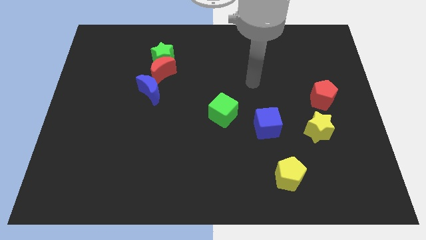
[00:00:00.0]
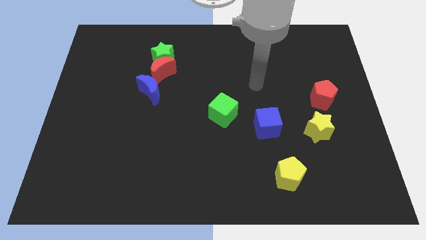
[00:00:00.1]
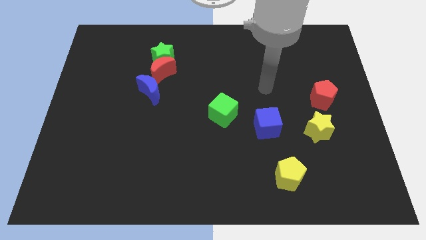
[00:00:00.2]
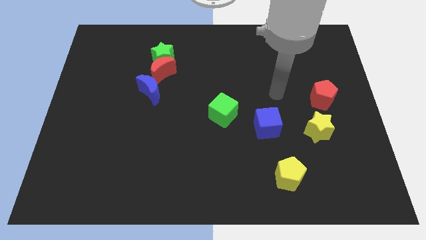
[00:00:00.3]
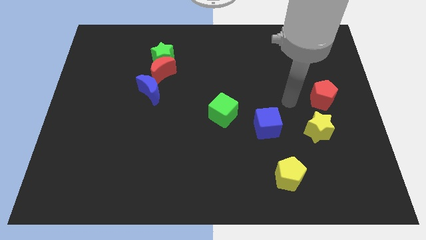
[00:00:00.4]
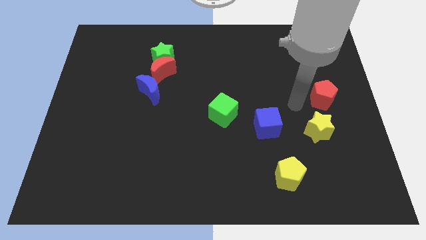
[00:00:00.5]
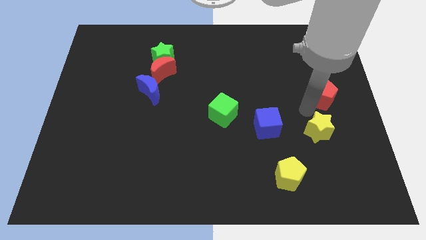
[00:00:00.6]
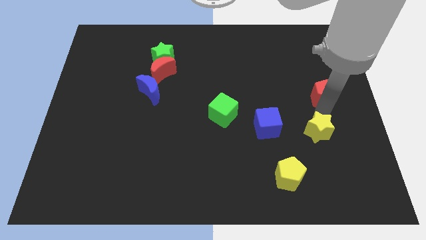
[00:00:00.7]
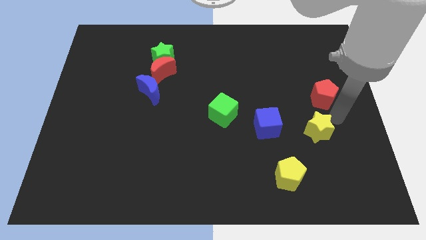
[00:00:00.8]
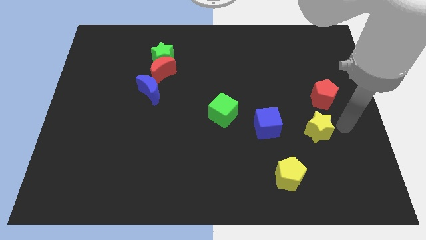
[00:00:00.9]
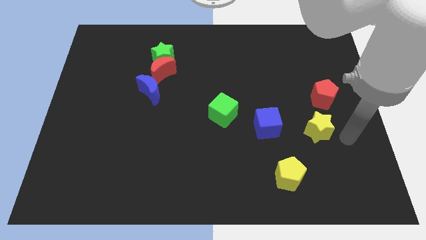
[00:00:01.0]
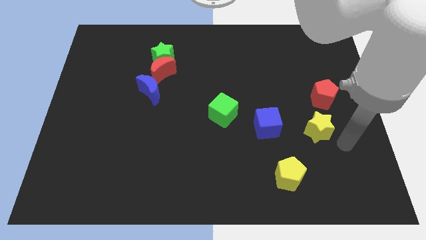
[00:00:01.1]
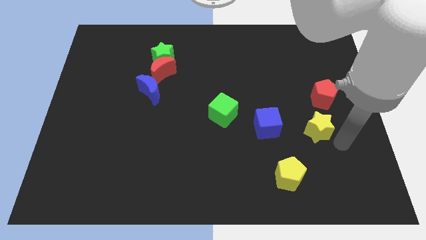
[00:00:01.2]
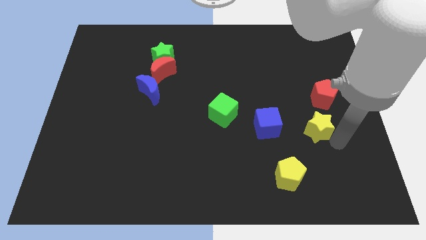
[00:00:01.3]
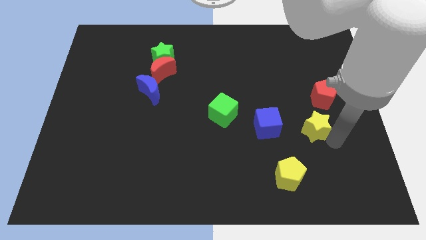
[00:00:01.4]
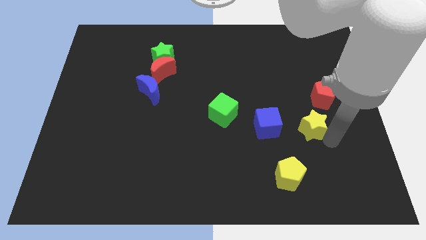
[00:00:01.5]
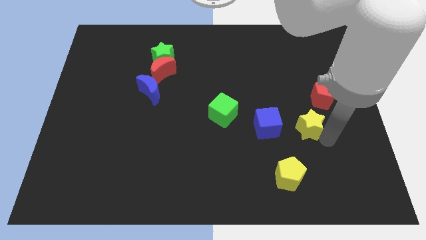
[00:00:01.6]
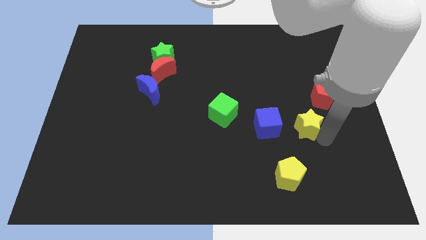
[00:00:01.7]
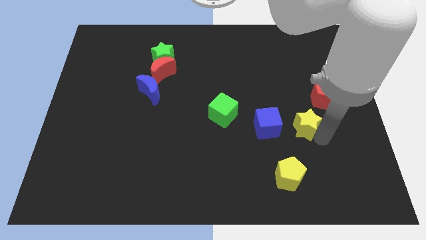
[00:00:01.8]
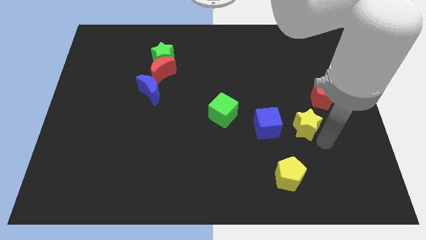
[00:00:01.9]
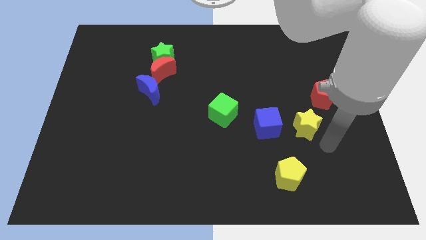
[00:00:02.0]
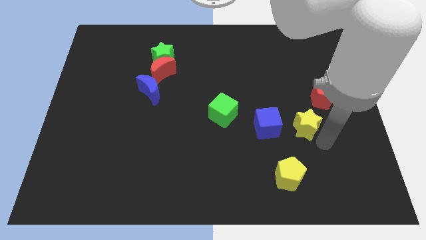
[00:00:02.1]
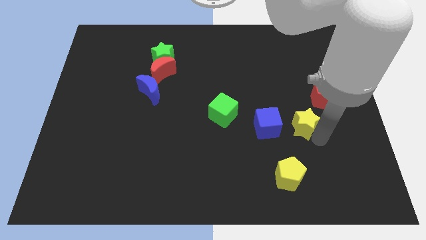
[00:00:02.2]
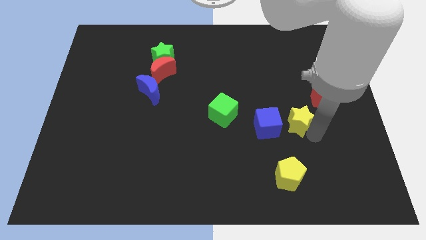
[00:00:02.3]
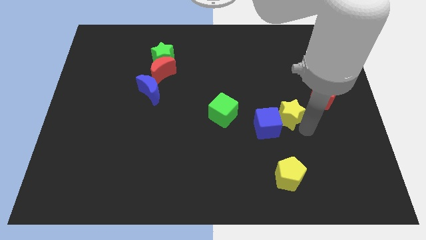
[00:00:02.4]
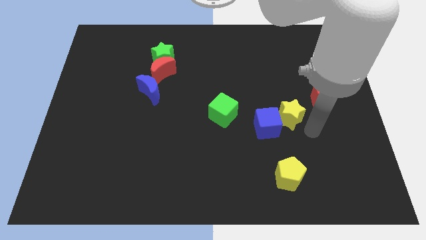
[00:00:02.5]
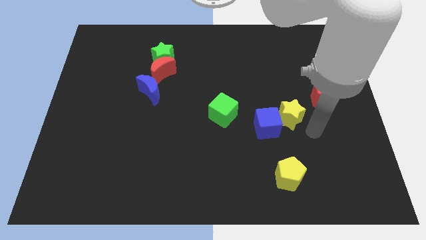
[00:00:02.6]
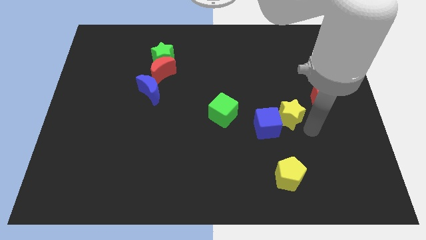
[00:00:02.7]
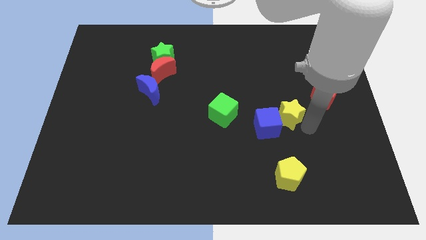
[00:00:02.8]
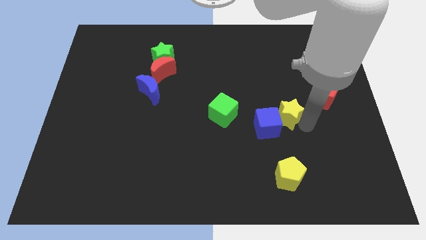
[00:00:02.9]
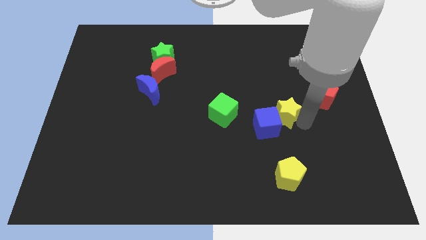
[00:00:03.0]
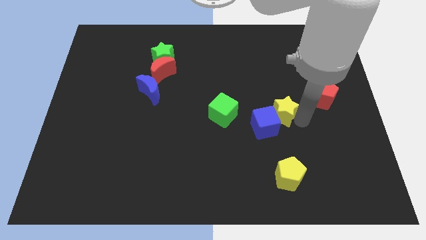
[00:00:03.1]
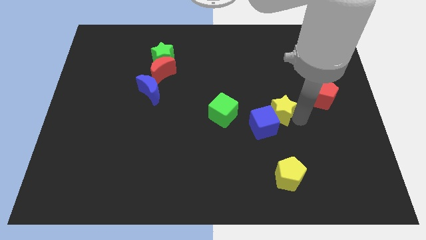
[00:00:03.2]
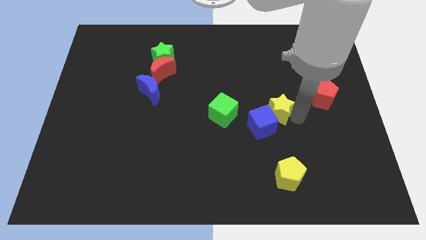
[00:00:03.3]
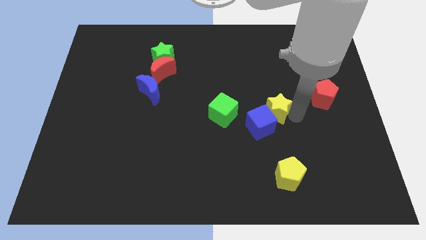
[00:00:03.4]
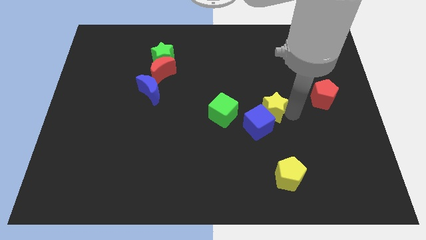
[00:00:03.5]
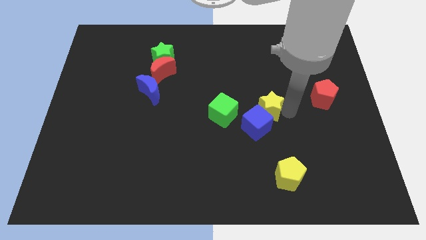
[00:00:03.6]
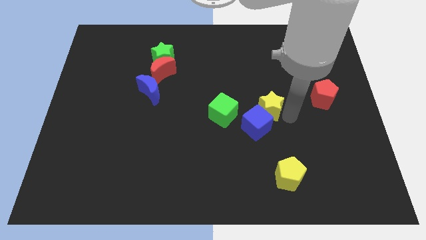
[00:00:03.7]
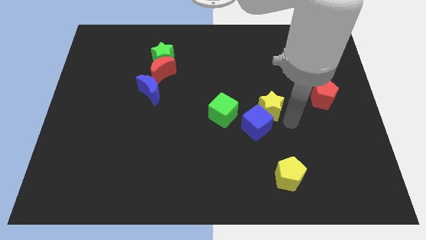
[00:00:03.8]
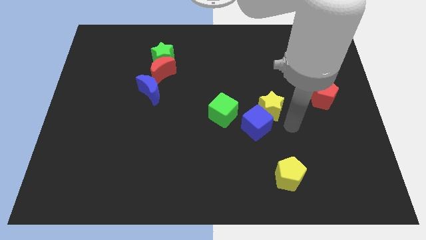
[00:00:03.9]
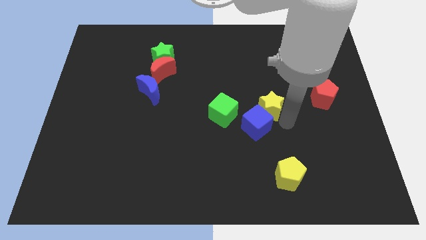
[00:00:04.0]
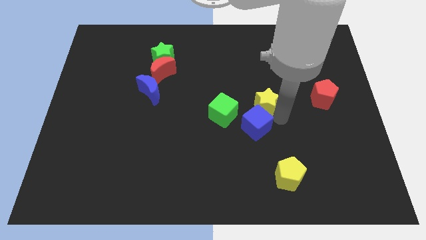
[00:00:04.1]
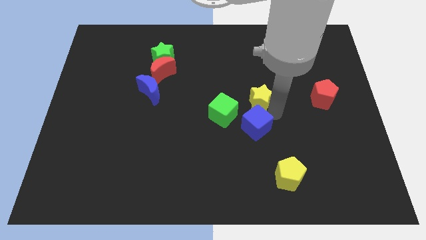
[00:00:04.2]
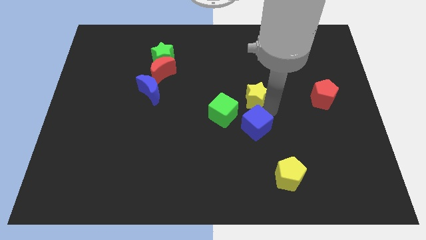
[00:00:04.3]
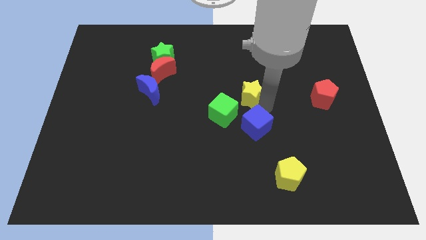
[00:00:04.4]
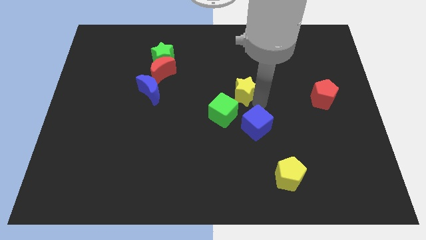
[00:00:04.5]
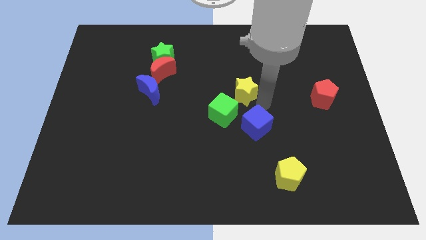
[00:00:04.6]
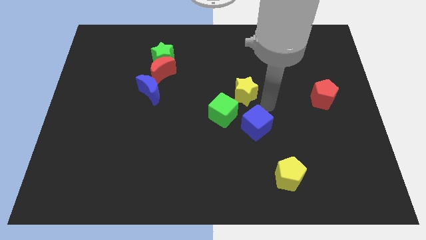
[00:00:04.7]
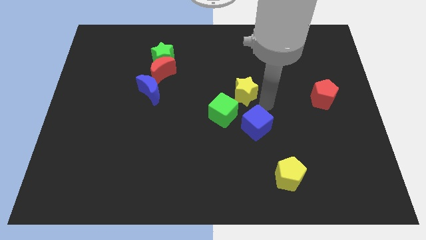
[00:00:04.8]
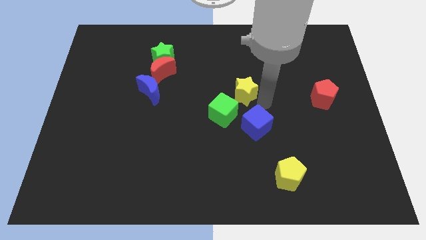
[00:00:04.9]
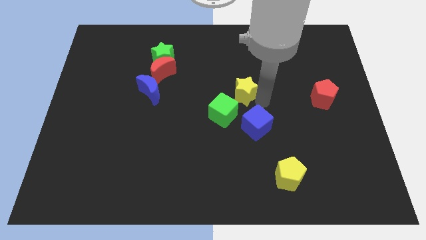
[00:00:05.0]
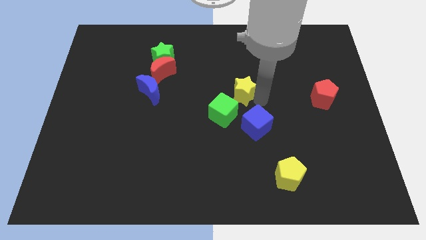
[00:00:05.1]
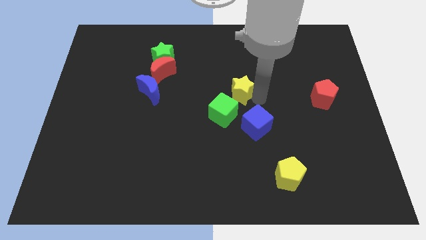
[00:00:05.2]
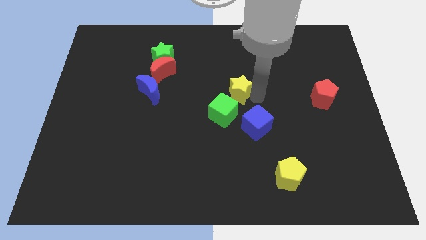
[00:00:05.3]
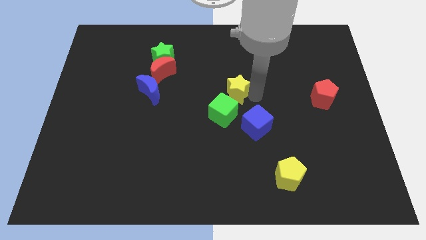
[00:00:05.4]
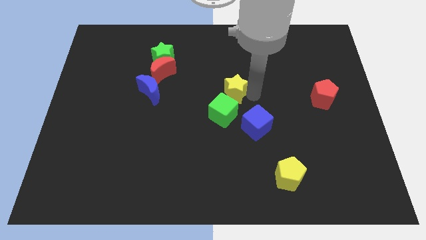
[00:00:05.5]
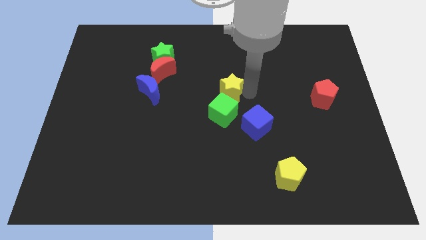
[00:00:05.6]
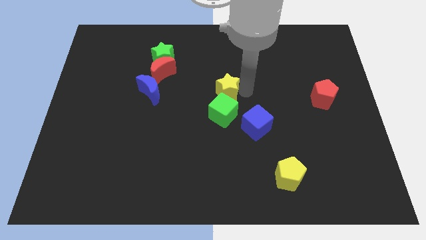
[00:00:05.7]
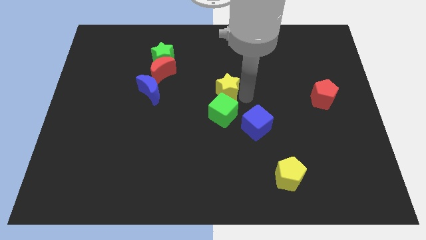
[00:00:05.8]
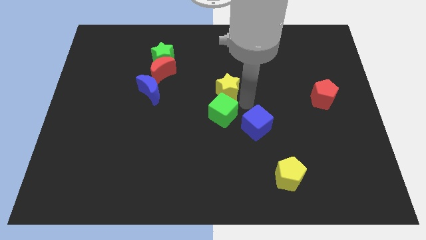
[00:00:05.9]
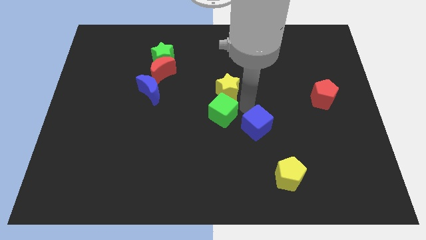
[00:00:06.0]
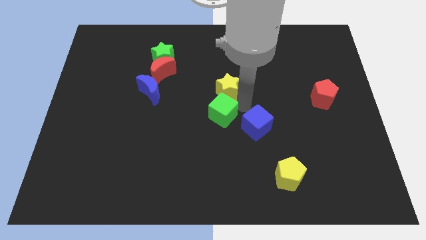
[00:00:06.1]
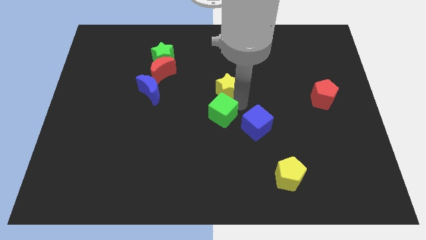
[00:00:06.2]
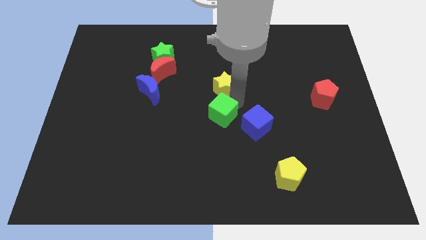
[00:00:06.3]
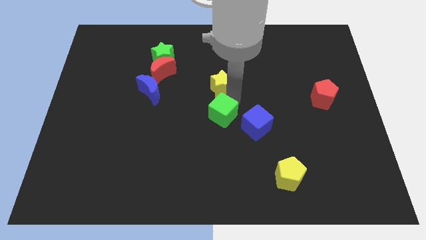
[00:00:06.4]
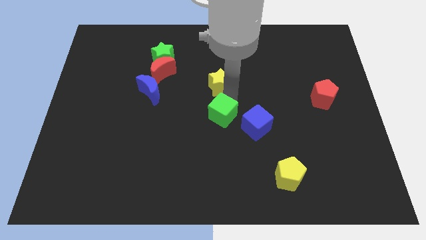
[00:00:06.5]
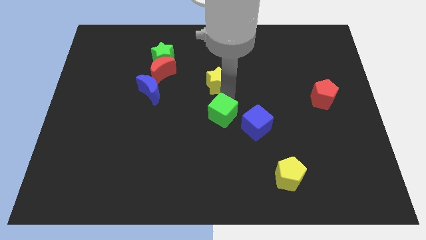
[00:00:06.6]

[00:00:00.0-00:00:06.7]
slide the yellow star to the right of the red moon
